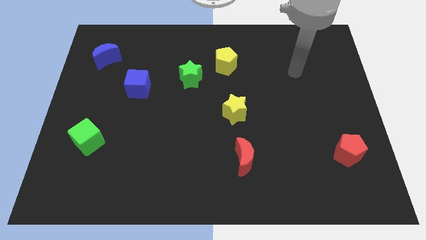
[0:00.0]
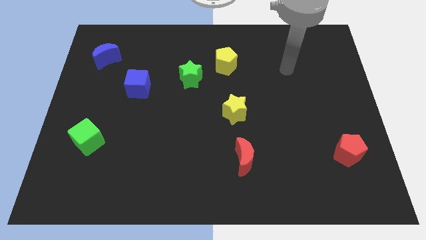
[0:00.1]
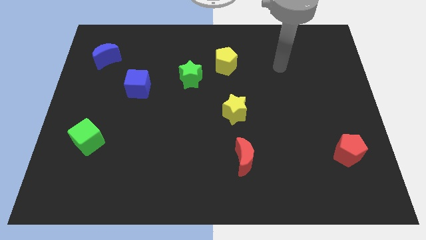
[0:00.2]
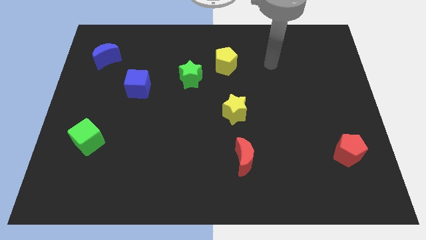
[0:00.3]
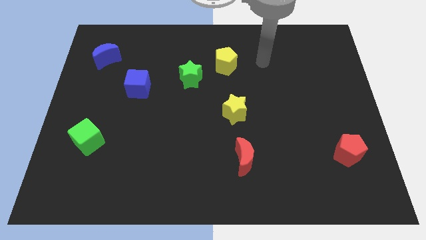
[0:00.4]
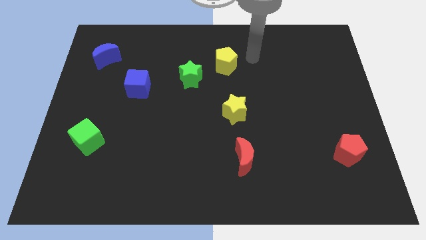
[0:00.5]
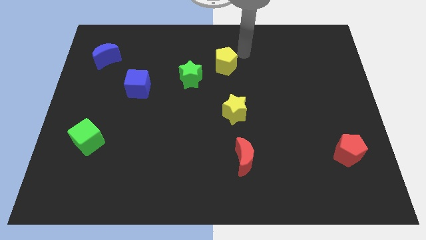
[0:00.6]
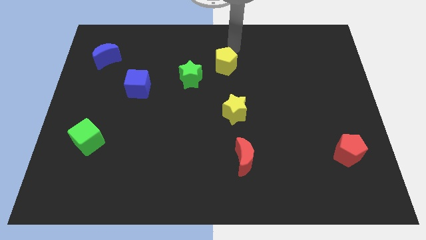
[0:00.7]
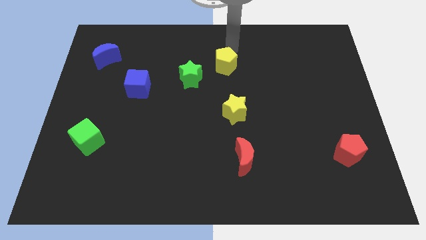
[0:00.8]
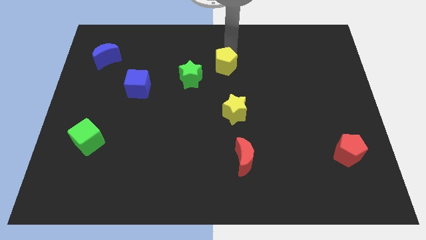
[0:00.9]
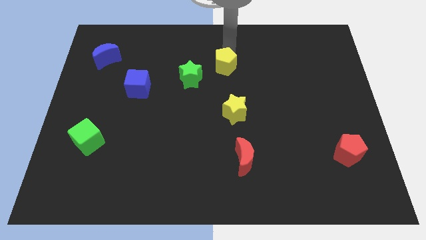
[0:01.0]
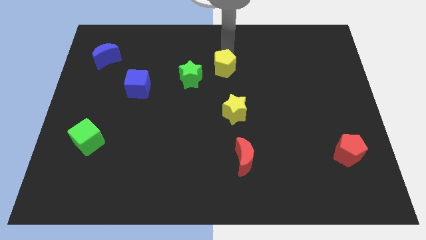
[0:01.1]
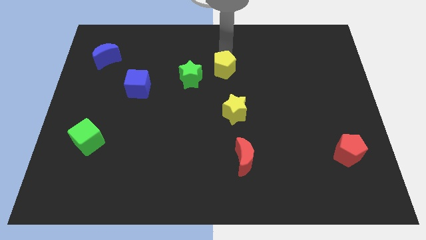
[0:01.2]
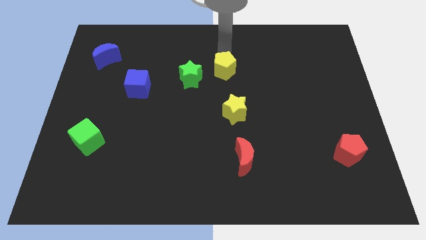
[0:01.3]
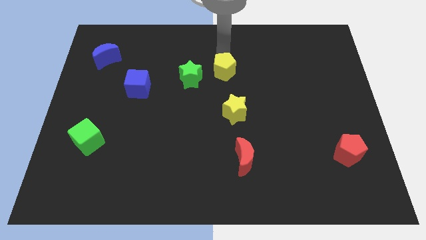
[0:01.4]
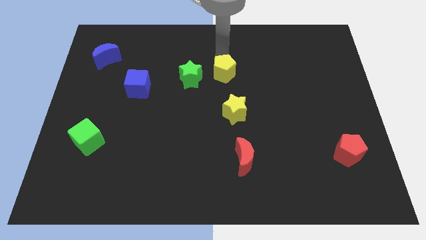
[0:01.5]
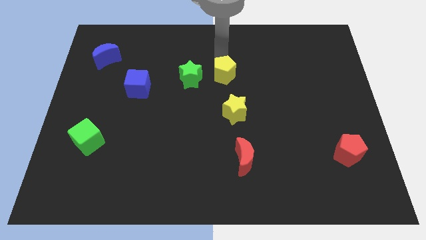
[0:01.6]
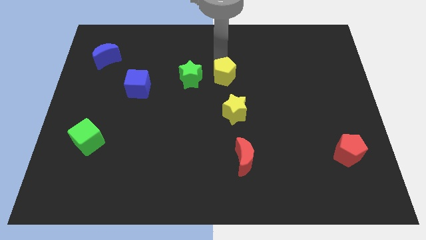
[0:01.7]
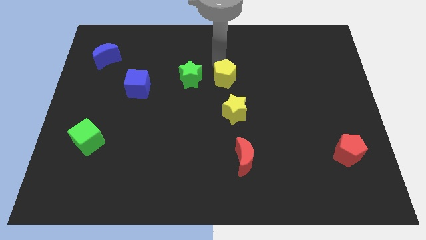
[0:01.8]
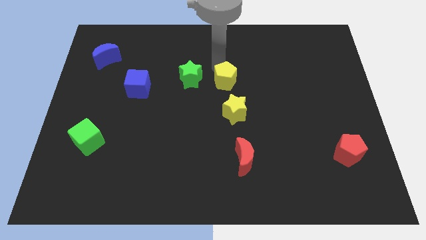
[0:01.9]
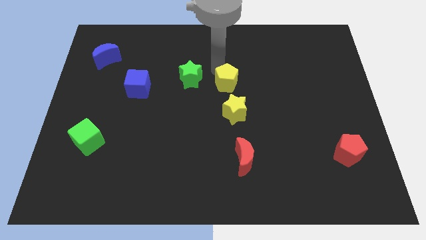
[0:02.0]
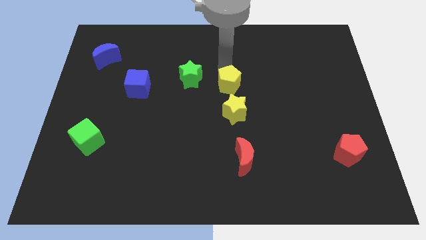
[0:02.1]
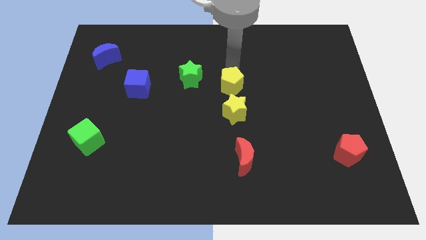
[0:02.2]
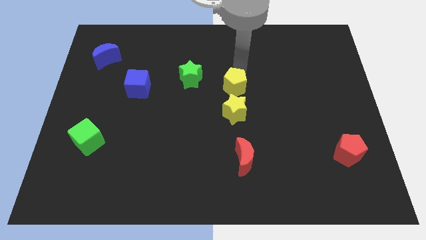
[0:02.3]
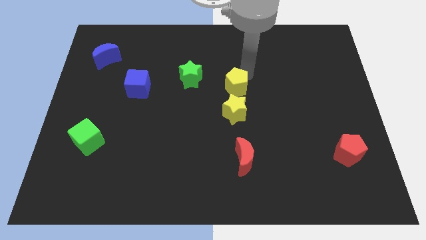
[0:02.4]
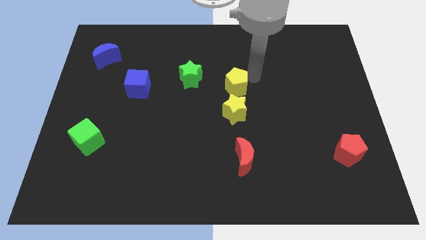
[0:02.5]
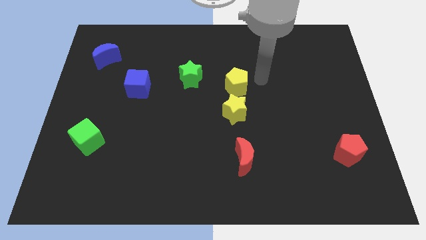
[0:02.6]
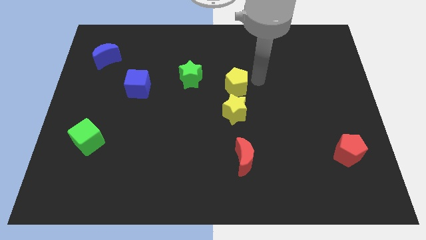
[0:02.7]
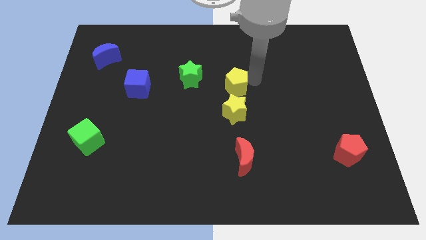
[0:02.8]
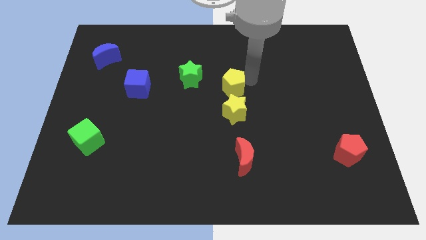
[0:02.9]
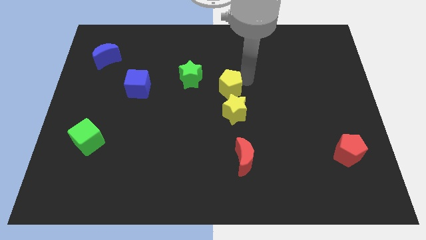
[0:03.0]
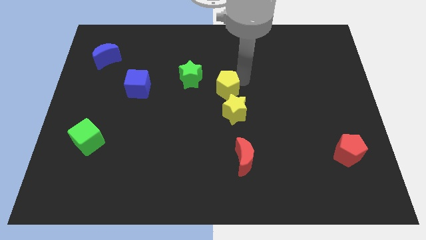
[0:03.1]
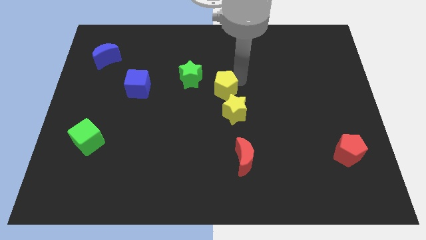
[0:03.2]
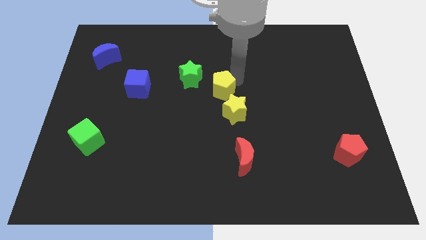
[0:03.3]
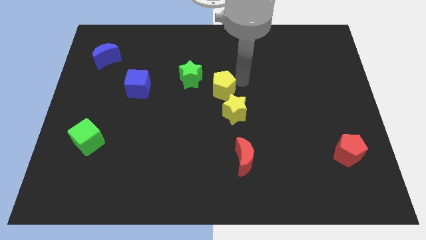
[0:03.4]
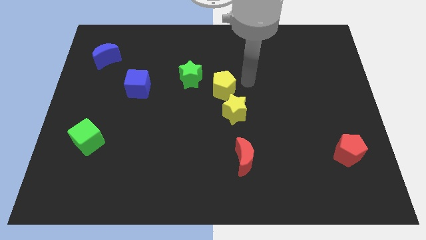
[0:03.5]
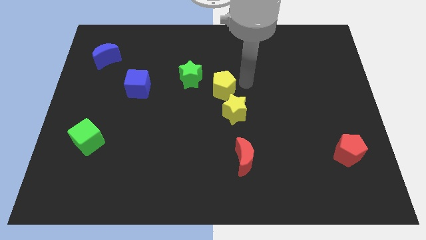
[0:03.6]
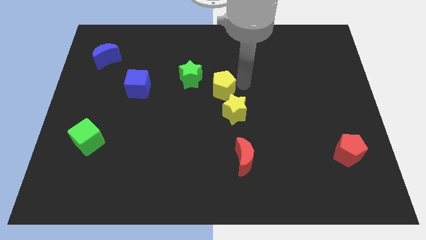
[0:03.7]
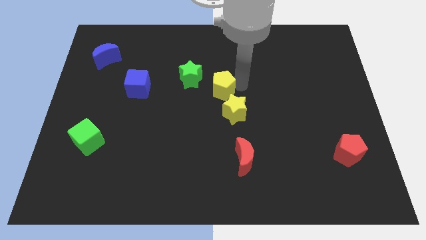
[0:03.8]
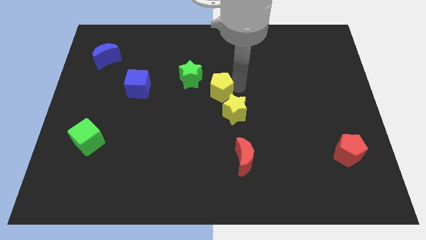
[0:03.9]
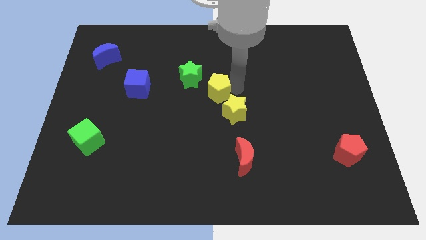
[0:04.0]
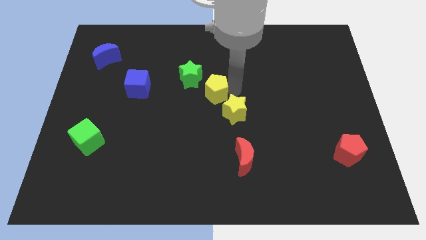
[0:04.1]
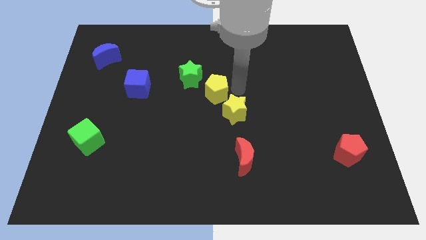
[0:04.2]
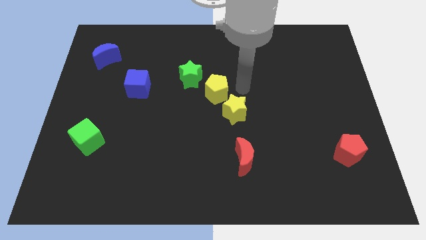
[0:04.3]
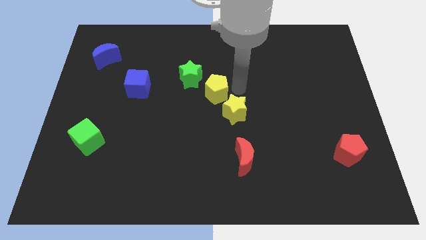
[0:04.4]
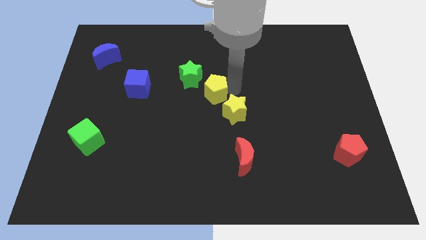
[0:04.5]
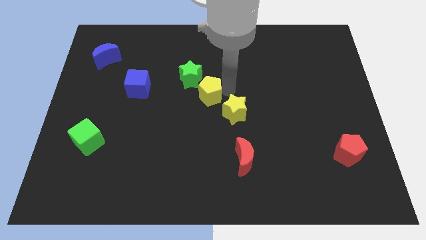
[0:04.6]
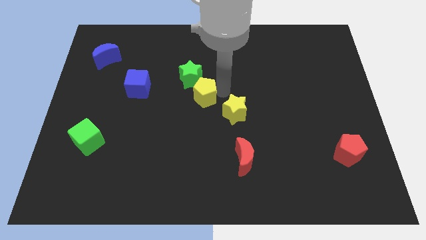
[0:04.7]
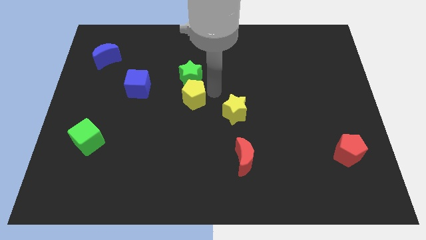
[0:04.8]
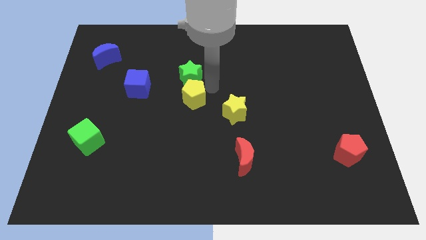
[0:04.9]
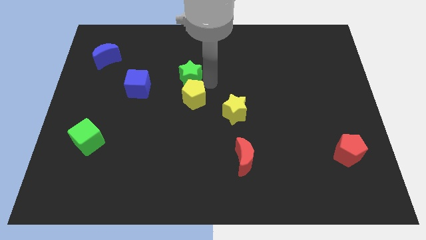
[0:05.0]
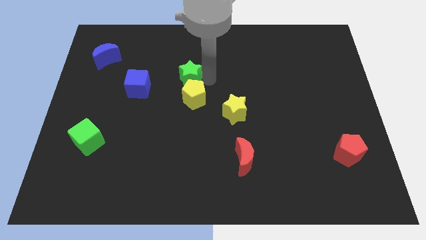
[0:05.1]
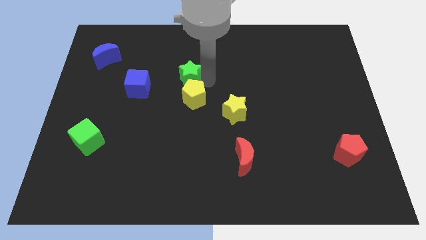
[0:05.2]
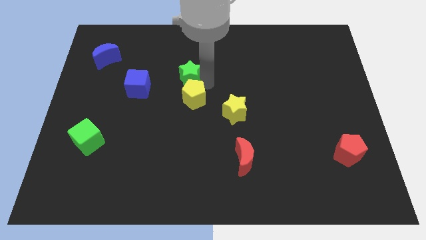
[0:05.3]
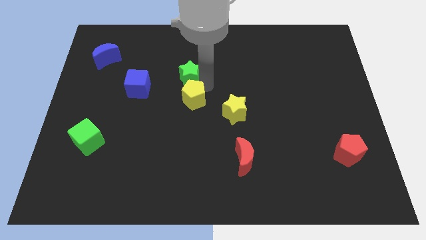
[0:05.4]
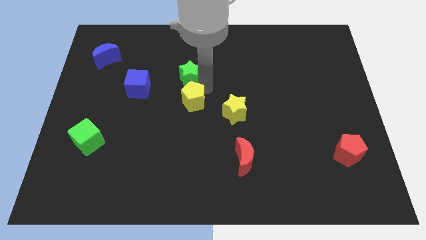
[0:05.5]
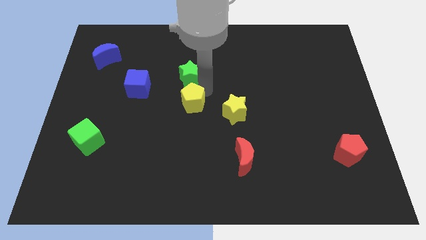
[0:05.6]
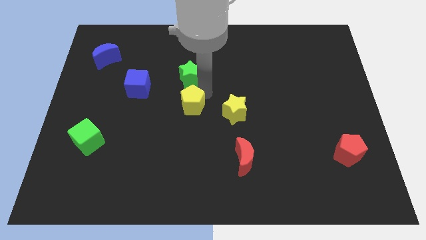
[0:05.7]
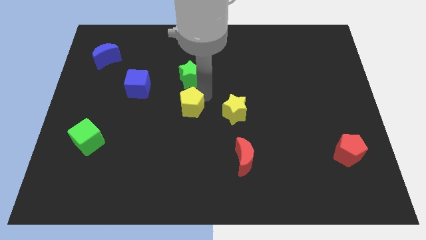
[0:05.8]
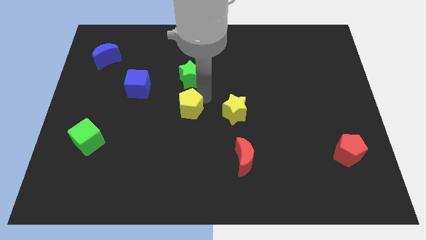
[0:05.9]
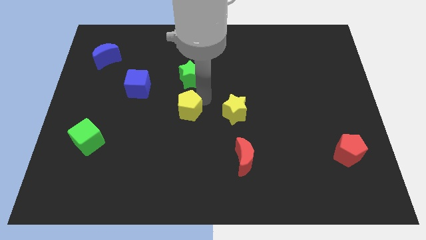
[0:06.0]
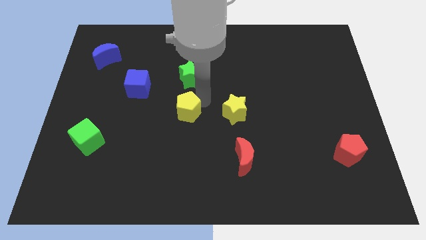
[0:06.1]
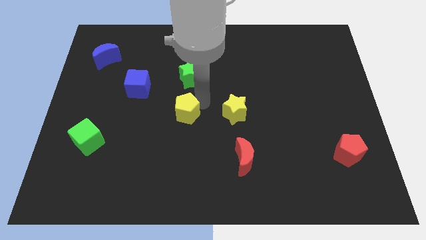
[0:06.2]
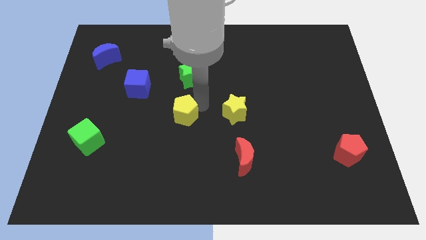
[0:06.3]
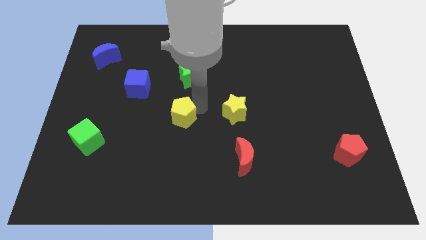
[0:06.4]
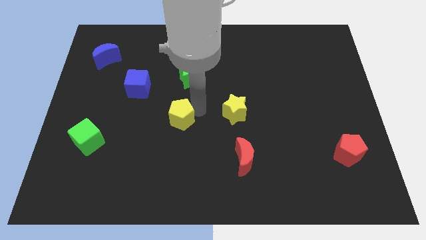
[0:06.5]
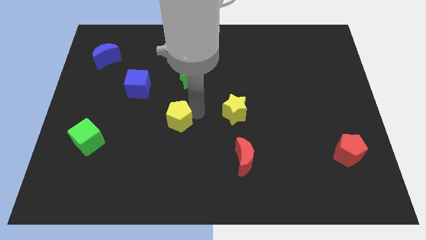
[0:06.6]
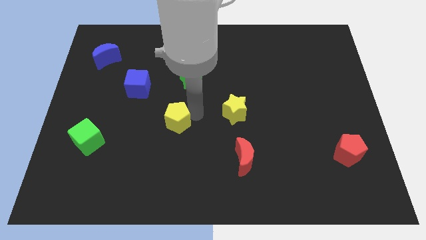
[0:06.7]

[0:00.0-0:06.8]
move the yellow pentagon downwards and then left

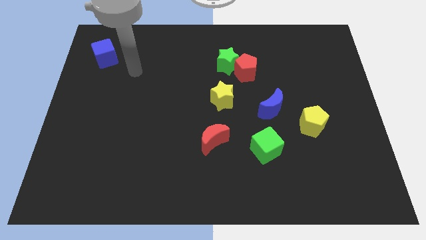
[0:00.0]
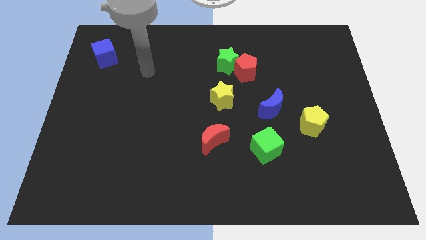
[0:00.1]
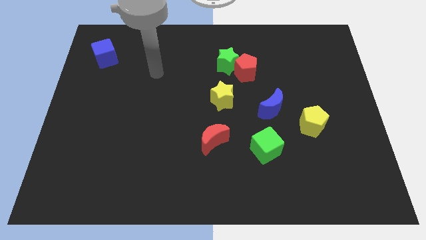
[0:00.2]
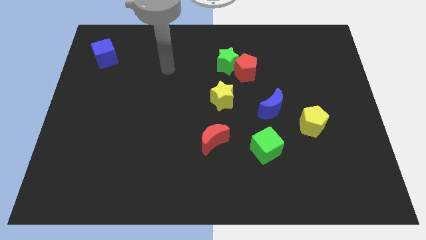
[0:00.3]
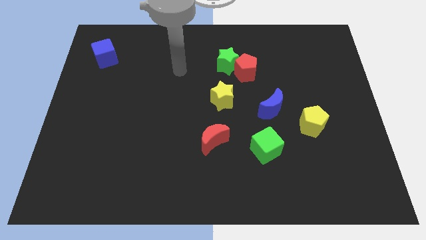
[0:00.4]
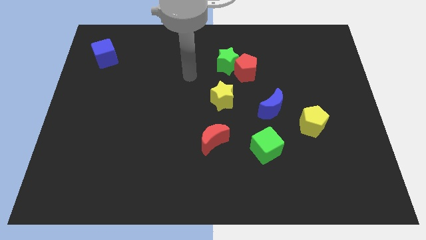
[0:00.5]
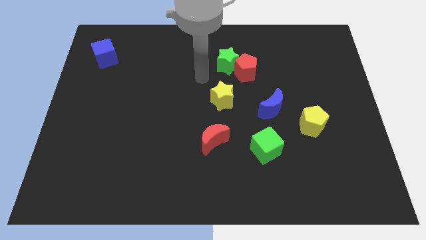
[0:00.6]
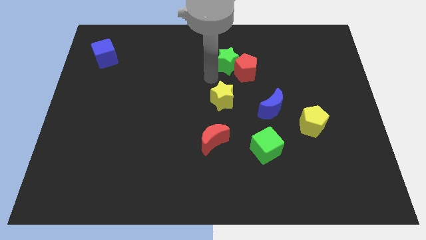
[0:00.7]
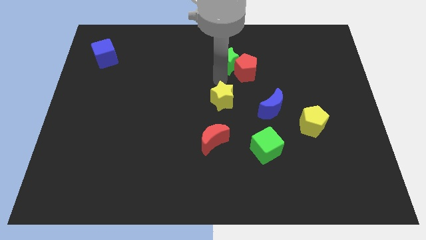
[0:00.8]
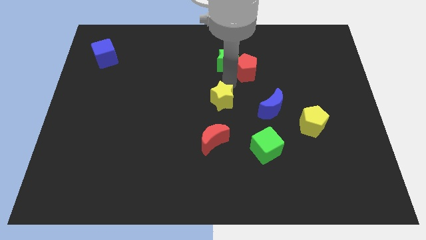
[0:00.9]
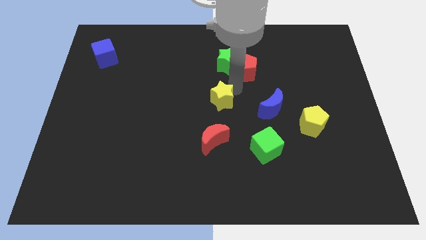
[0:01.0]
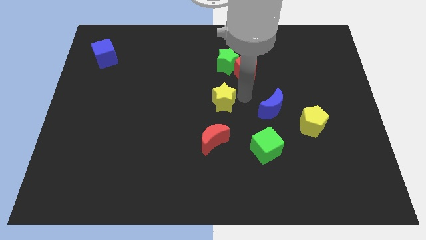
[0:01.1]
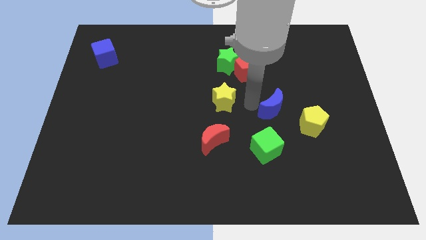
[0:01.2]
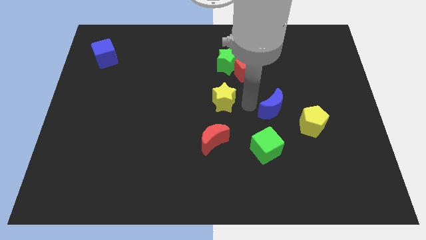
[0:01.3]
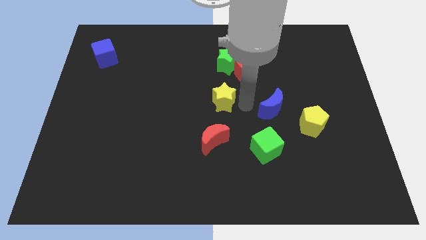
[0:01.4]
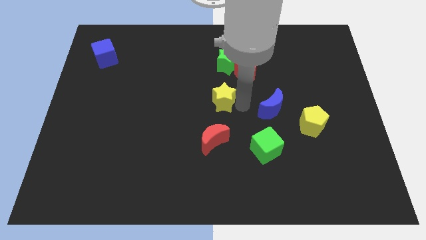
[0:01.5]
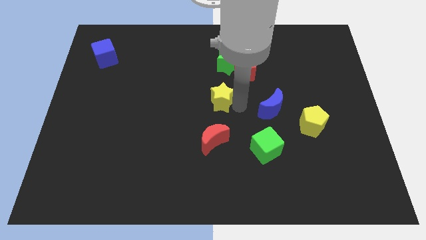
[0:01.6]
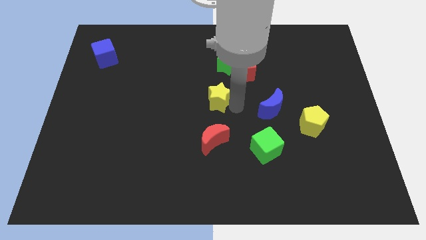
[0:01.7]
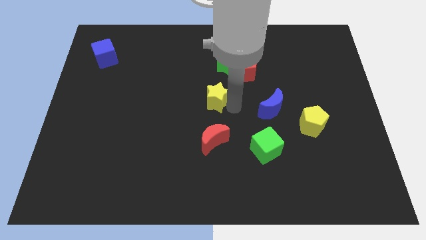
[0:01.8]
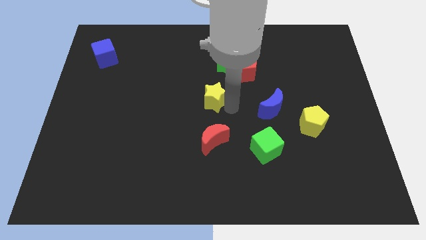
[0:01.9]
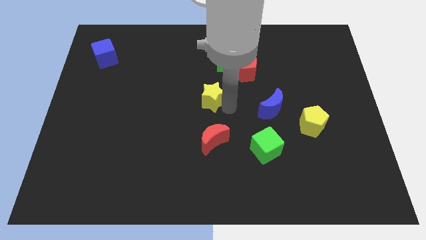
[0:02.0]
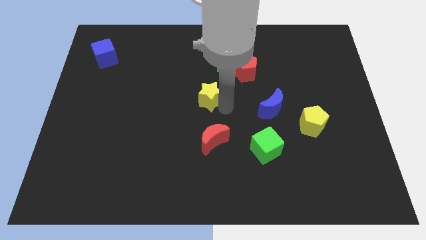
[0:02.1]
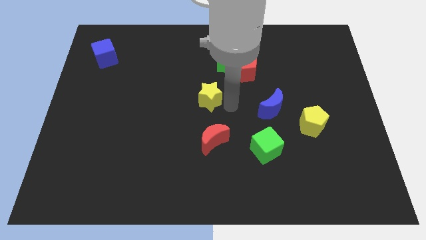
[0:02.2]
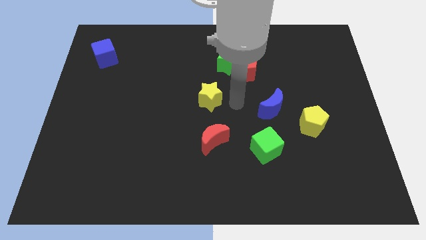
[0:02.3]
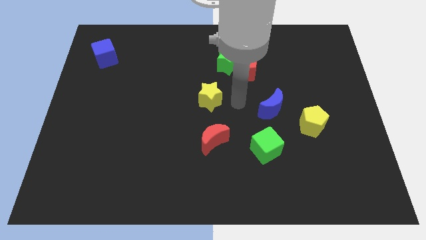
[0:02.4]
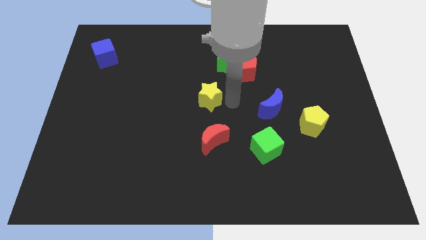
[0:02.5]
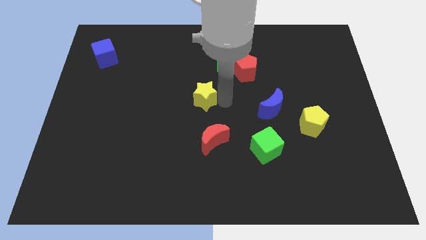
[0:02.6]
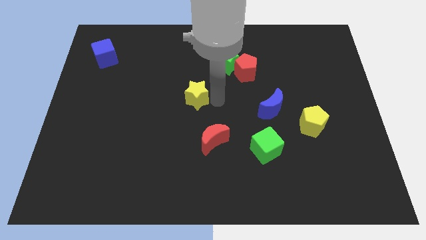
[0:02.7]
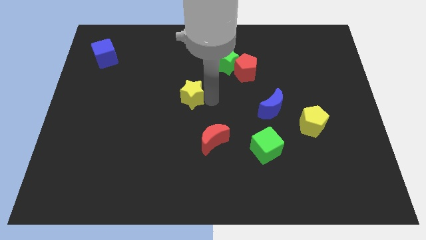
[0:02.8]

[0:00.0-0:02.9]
slide the yellow star left somewhat
